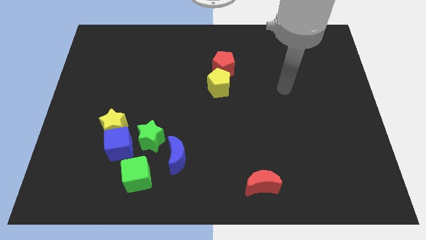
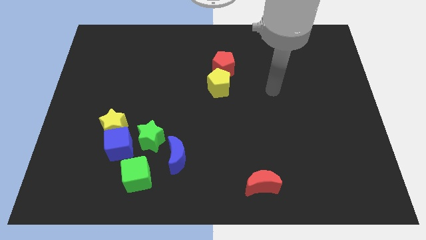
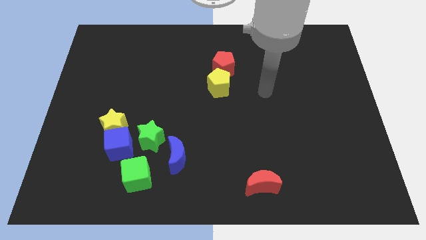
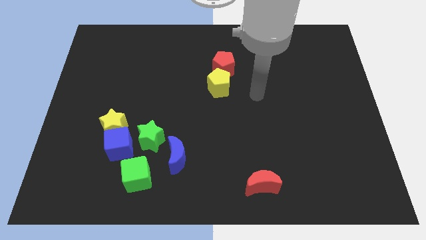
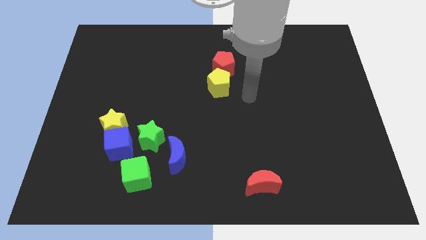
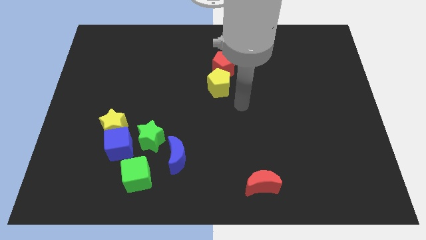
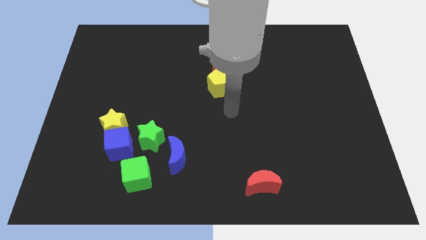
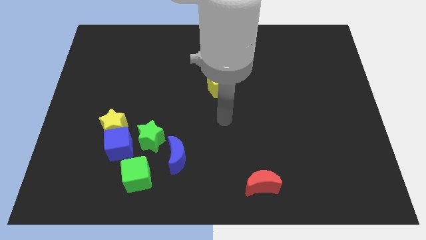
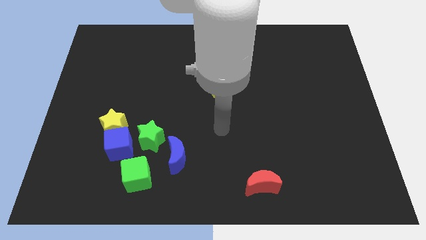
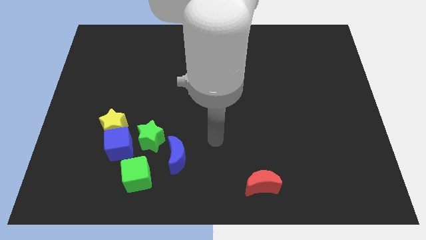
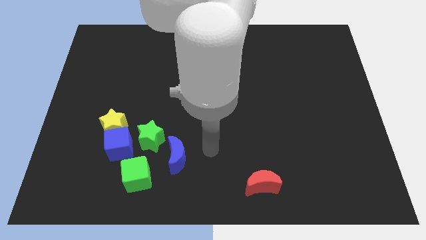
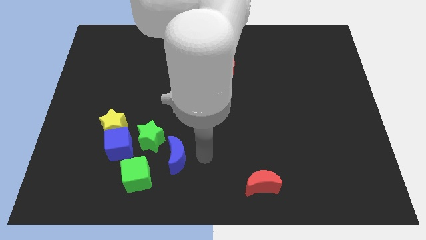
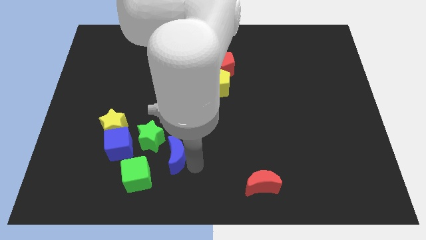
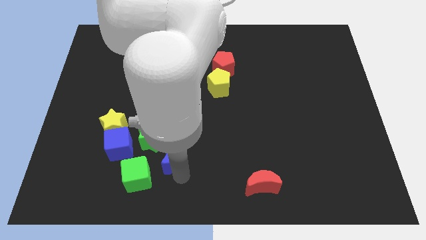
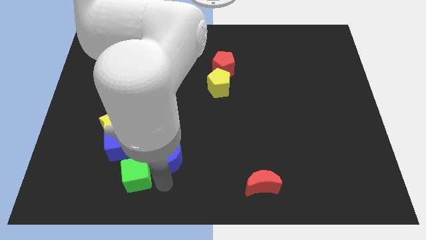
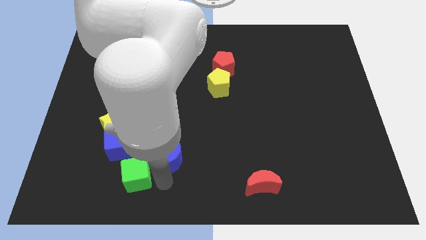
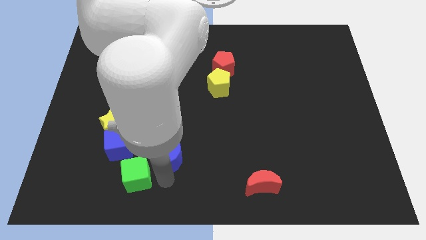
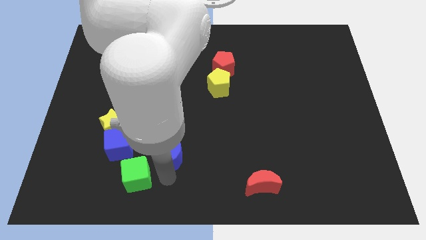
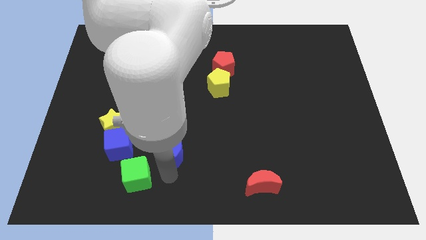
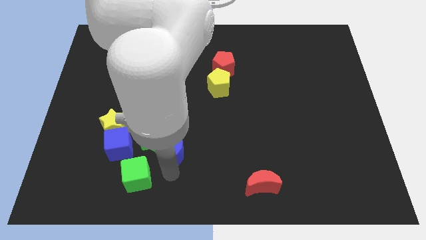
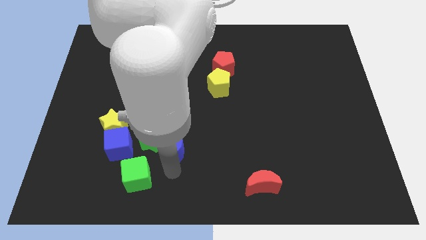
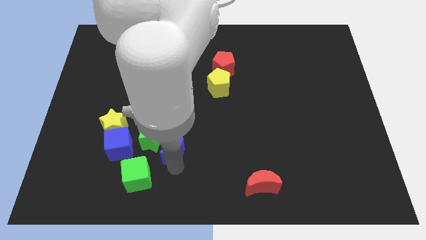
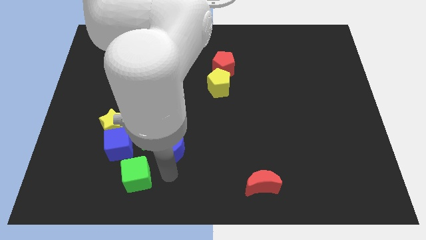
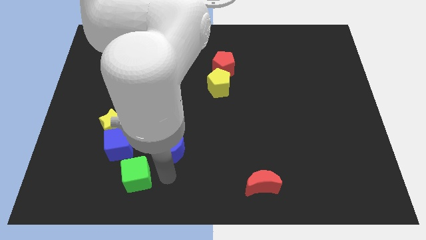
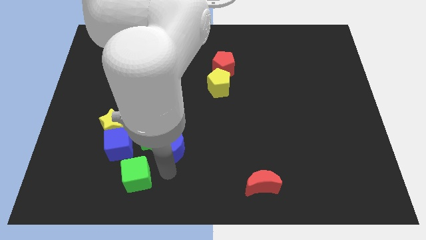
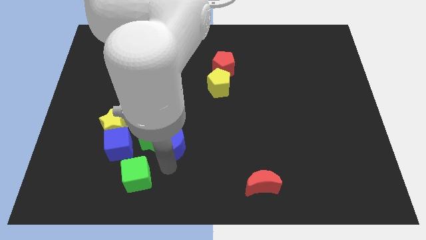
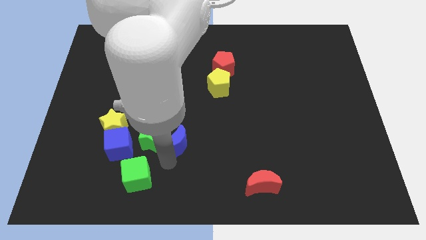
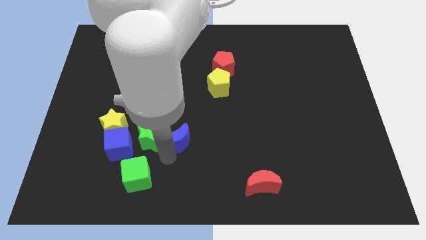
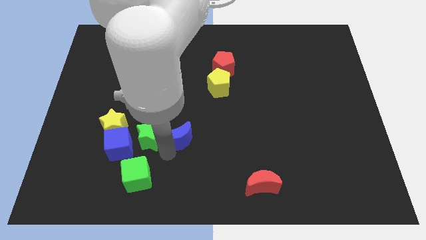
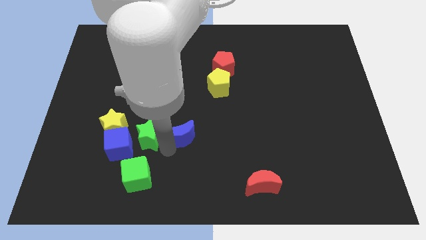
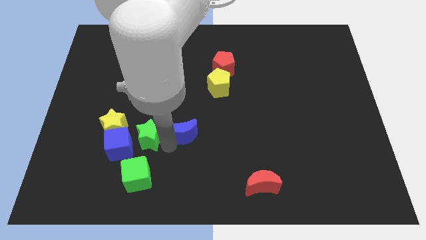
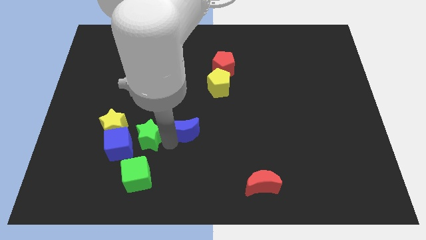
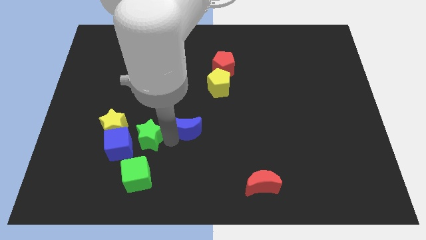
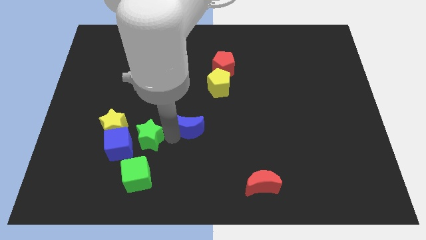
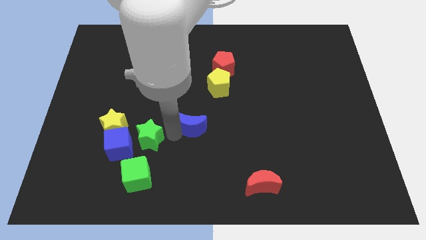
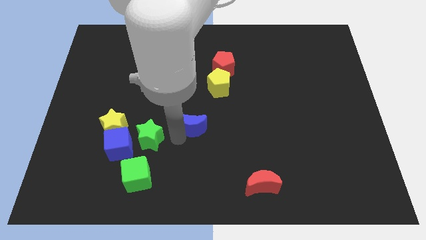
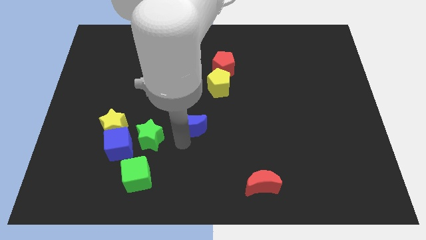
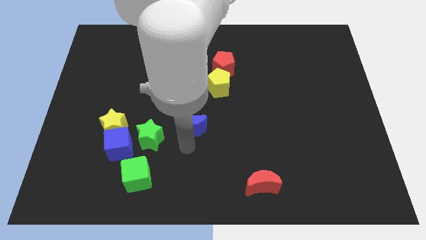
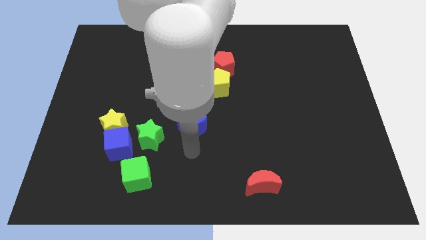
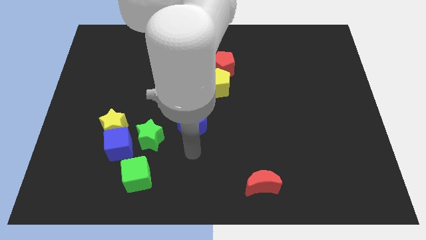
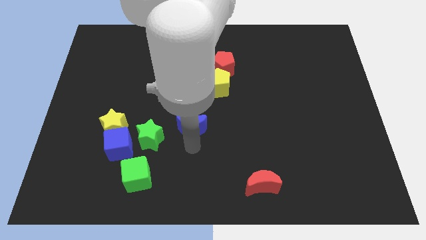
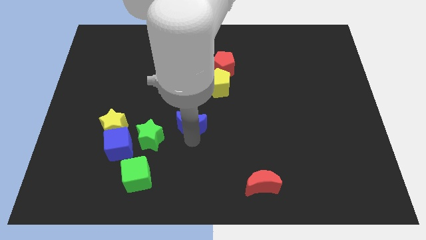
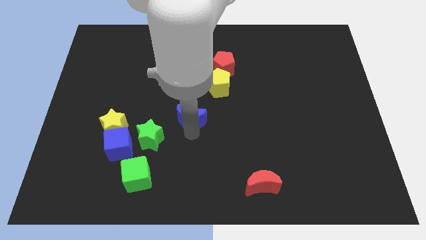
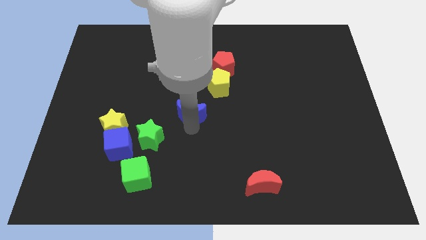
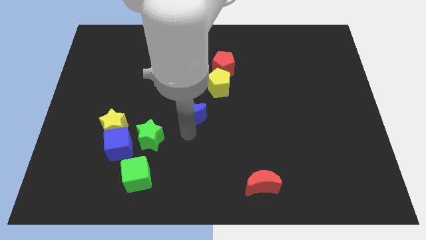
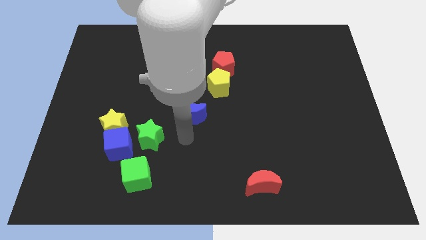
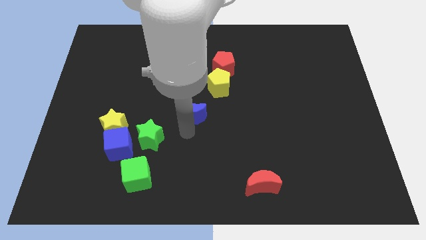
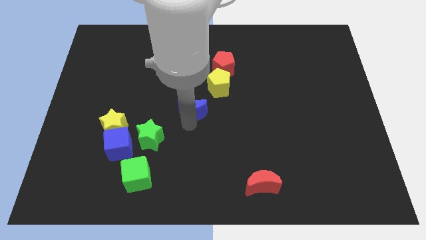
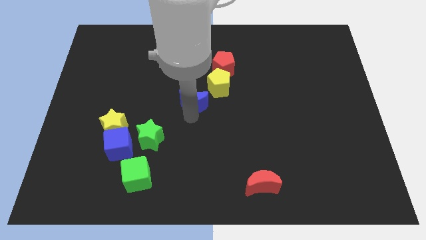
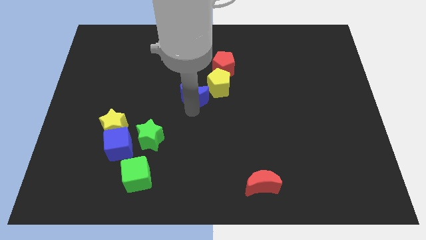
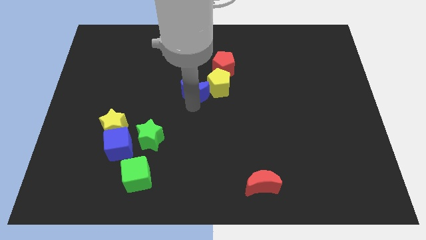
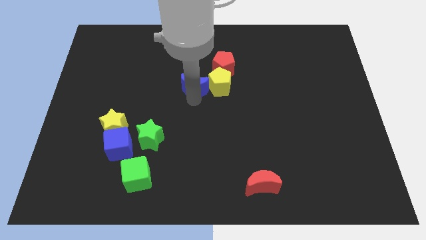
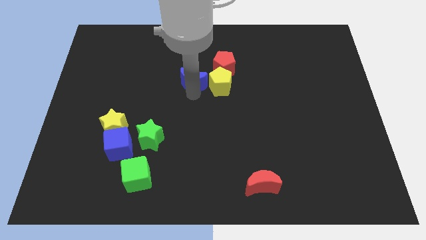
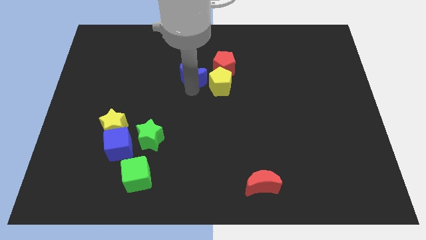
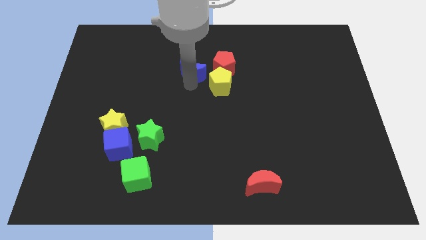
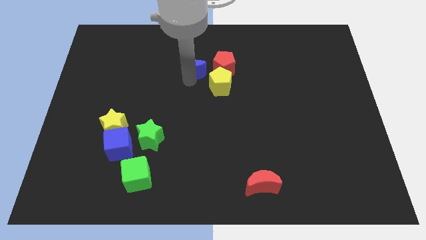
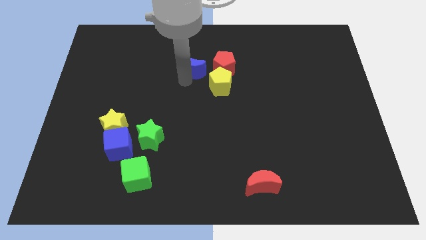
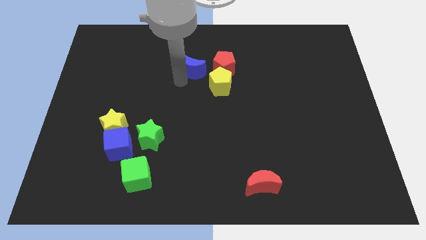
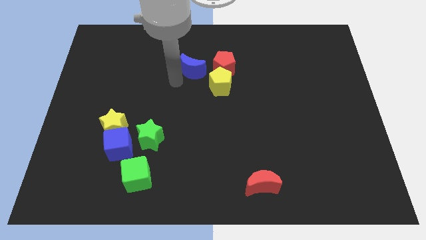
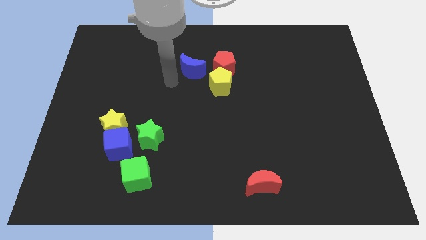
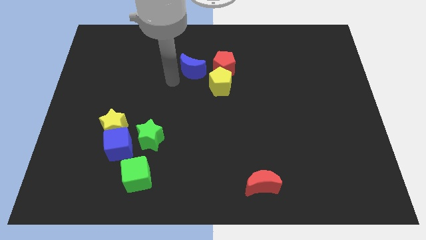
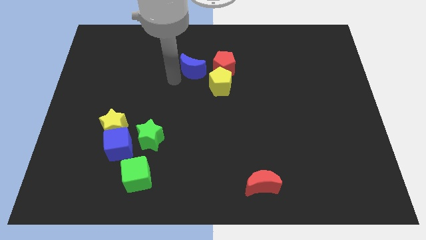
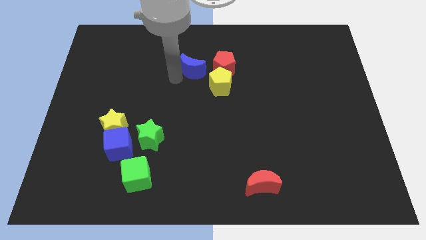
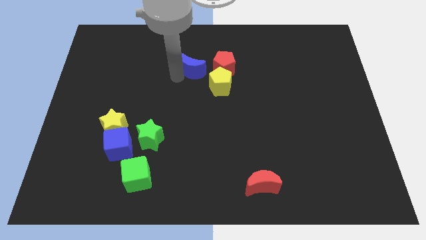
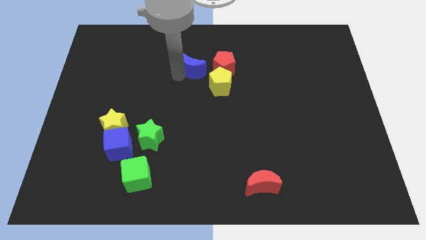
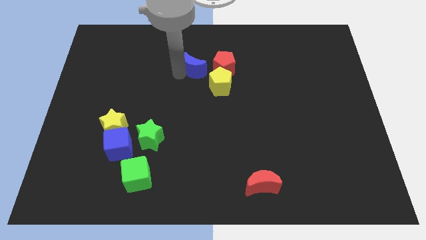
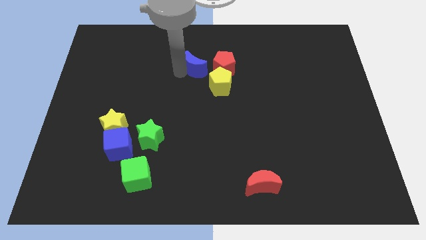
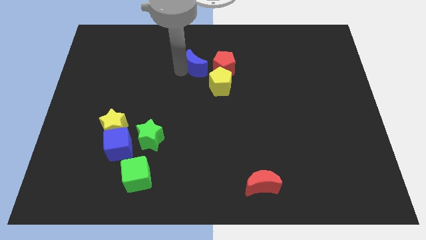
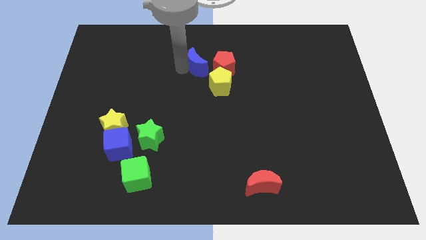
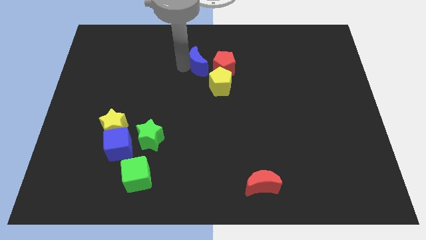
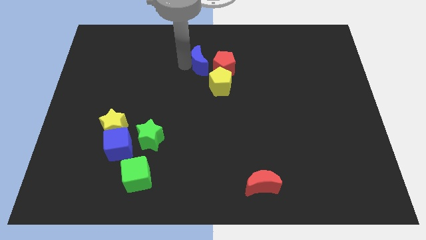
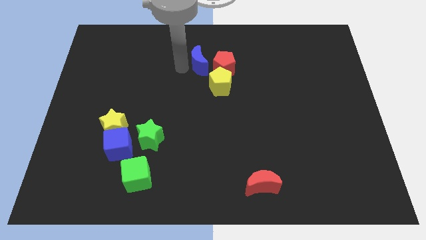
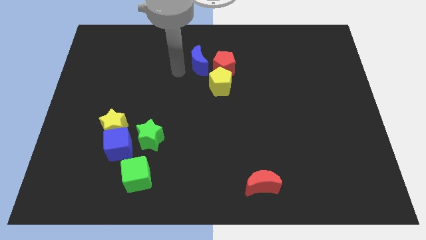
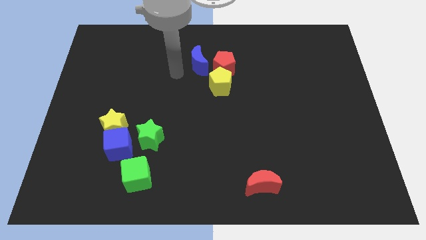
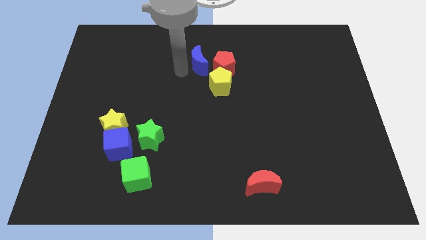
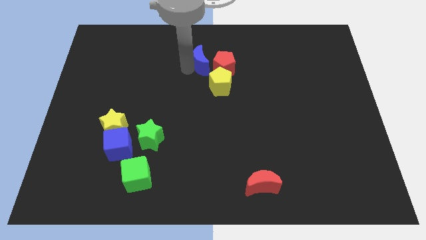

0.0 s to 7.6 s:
put the blue moon to the top side of the yellow pentagon
